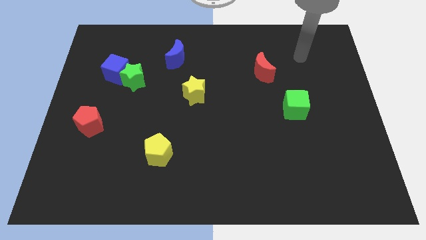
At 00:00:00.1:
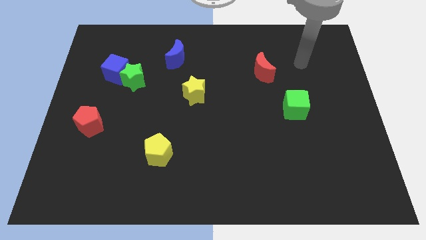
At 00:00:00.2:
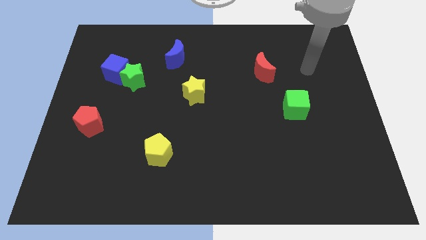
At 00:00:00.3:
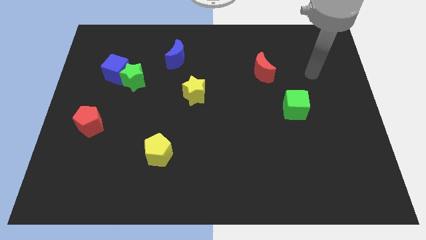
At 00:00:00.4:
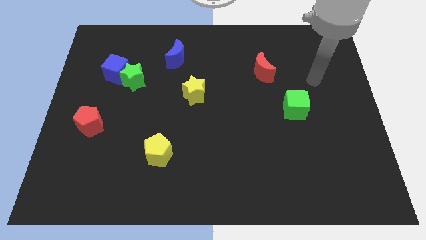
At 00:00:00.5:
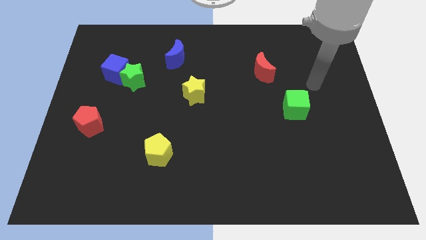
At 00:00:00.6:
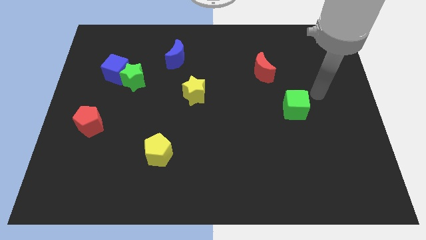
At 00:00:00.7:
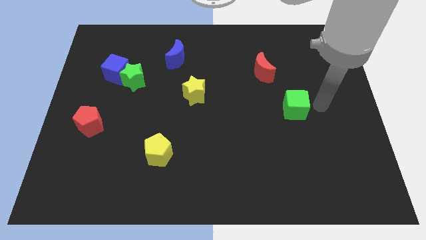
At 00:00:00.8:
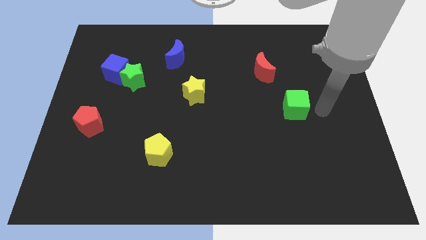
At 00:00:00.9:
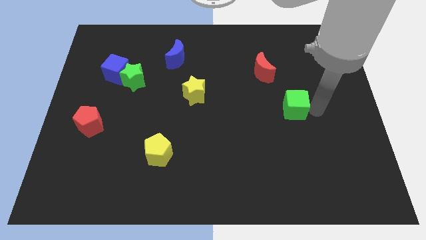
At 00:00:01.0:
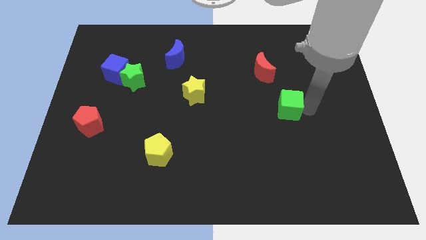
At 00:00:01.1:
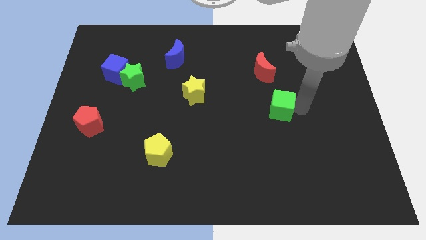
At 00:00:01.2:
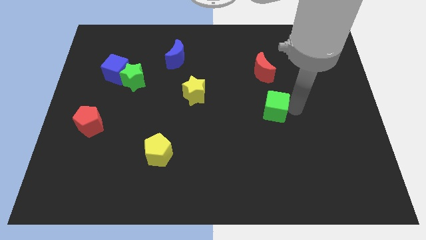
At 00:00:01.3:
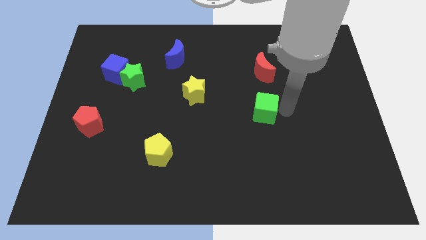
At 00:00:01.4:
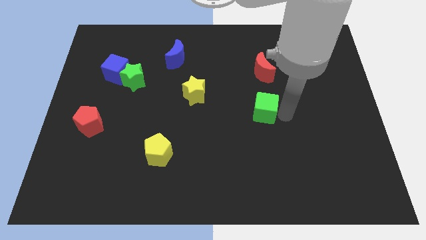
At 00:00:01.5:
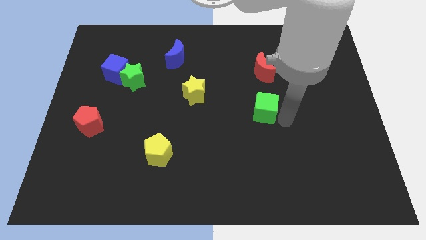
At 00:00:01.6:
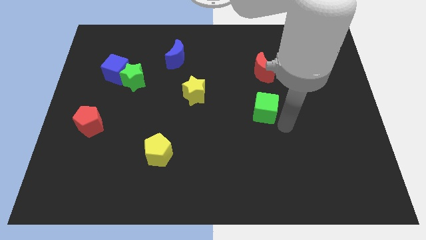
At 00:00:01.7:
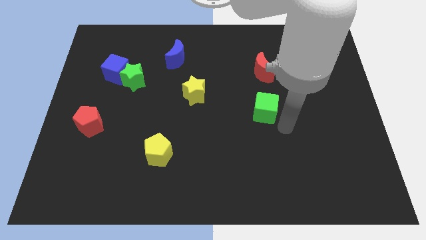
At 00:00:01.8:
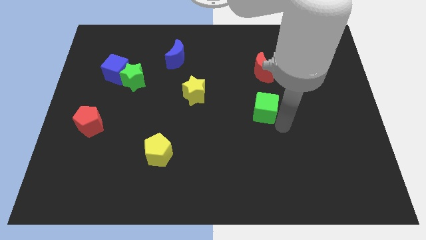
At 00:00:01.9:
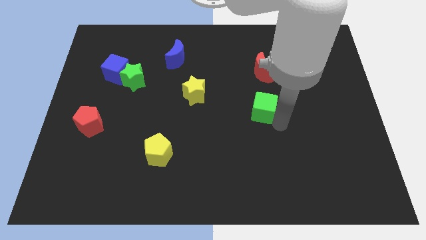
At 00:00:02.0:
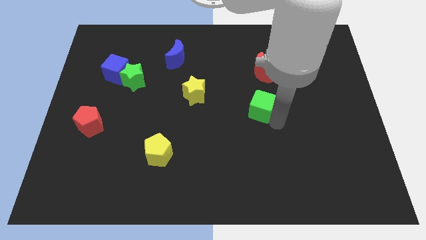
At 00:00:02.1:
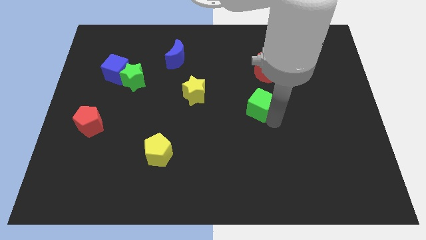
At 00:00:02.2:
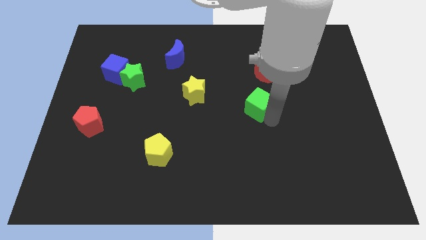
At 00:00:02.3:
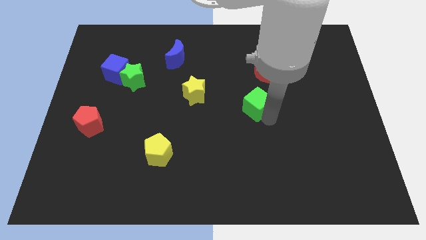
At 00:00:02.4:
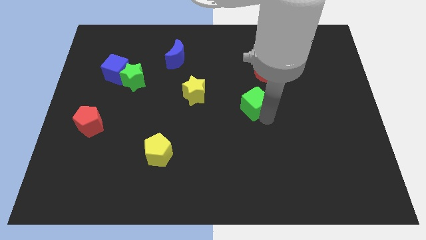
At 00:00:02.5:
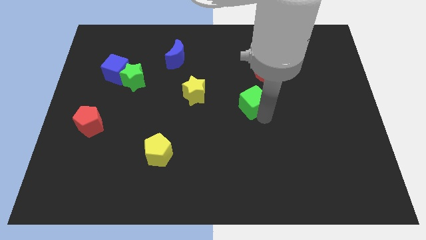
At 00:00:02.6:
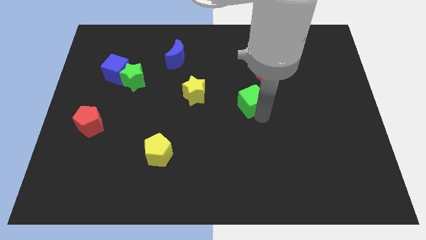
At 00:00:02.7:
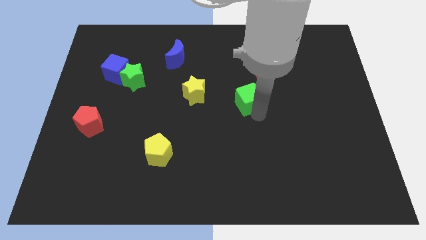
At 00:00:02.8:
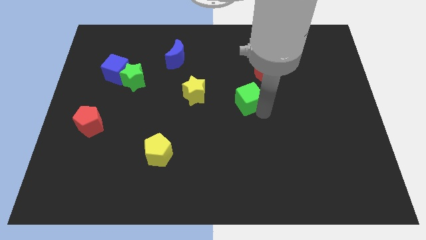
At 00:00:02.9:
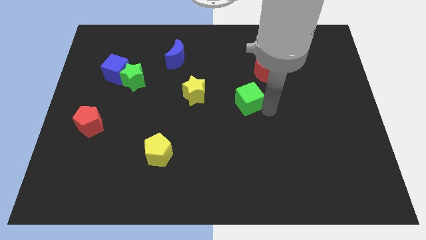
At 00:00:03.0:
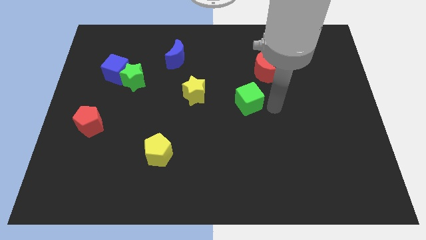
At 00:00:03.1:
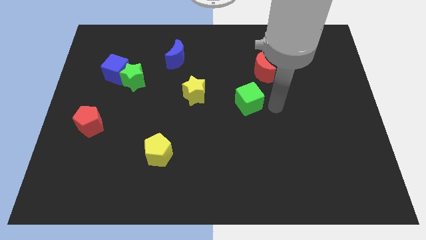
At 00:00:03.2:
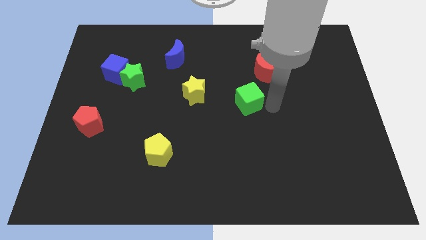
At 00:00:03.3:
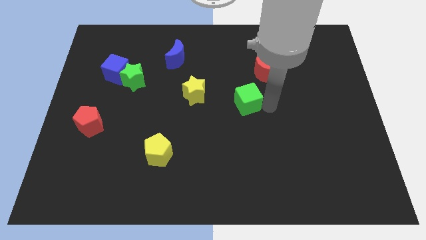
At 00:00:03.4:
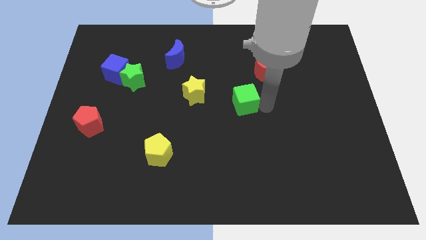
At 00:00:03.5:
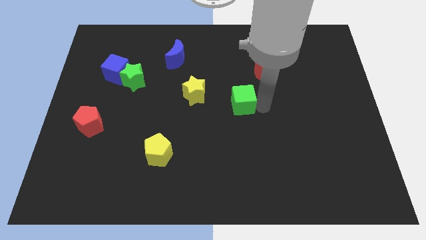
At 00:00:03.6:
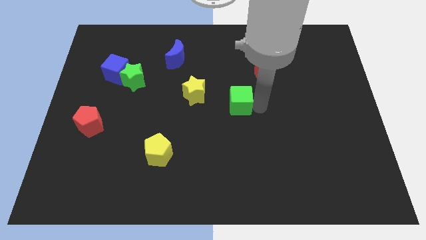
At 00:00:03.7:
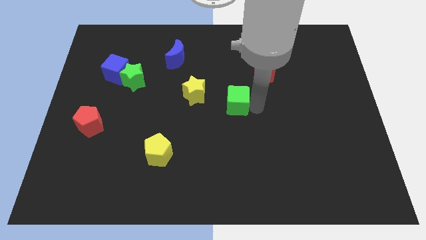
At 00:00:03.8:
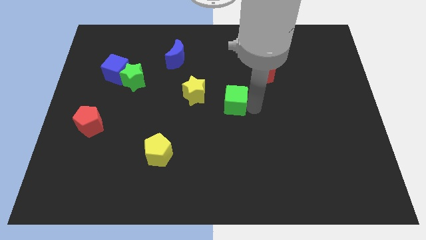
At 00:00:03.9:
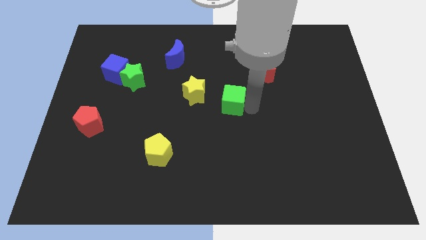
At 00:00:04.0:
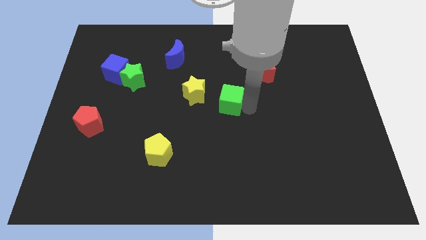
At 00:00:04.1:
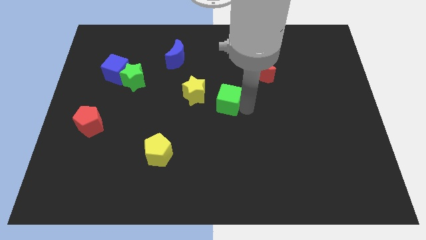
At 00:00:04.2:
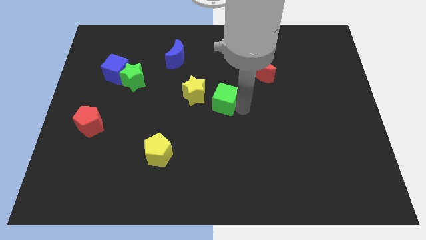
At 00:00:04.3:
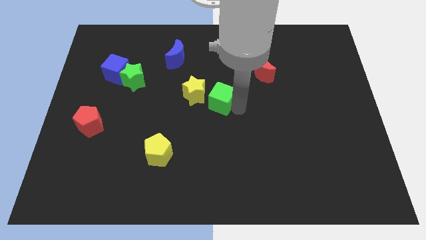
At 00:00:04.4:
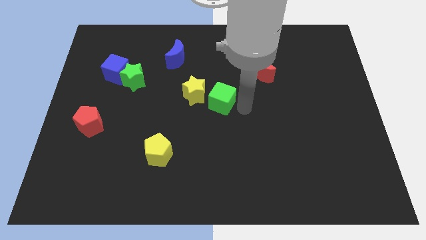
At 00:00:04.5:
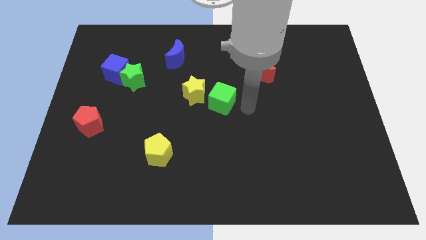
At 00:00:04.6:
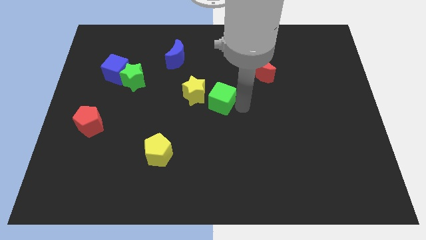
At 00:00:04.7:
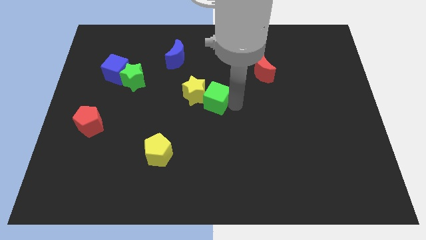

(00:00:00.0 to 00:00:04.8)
slide the green cube close to the yellow star

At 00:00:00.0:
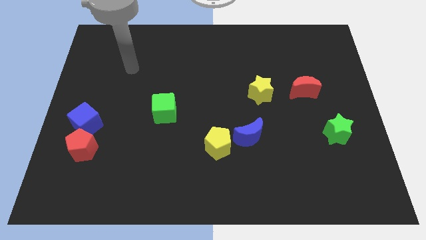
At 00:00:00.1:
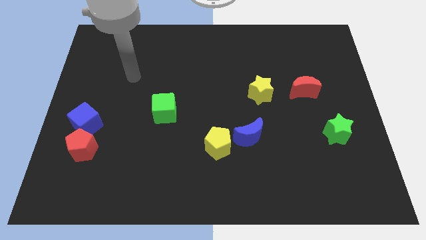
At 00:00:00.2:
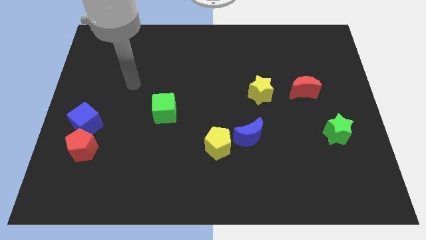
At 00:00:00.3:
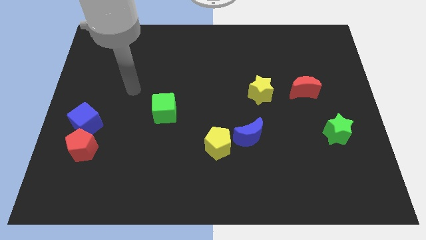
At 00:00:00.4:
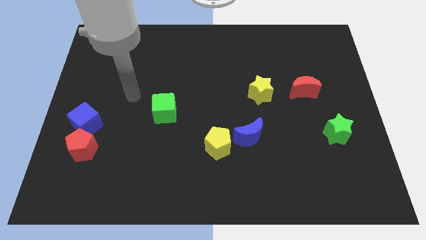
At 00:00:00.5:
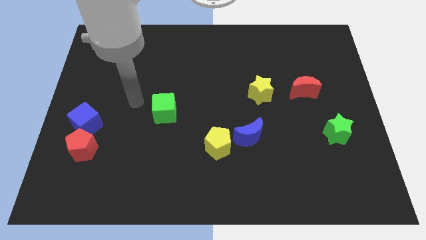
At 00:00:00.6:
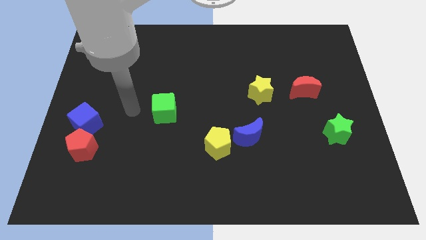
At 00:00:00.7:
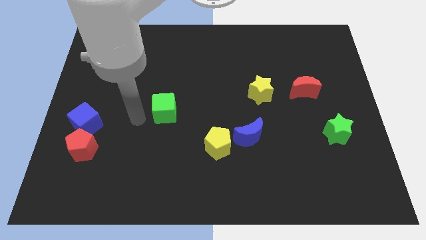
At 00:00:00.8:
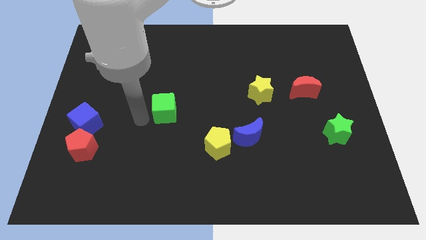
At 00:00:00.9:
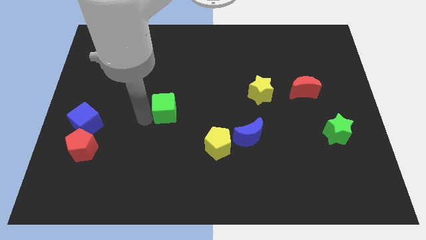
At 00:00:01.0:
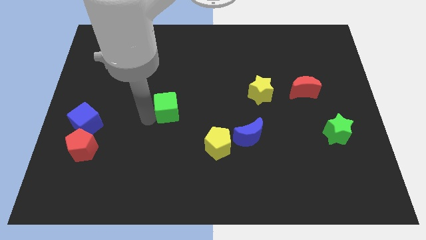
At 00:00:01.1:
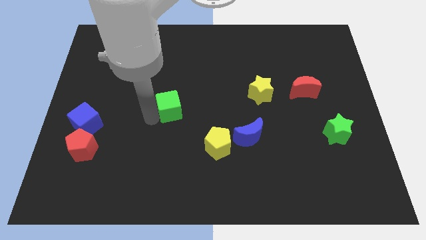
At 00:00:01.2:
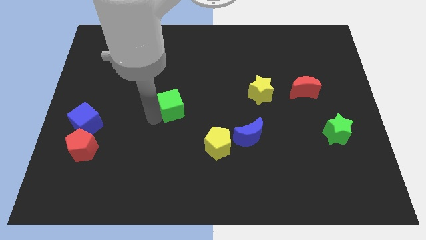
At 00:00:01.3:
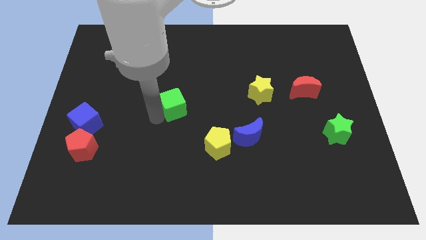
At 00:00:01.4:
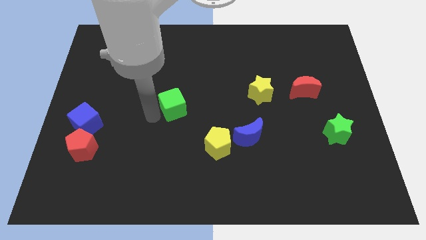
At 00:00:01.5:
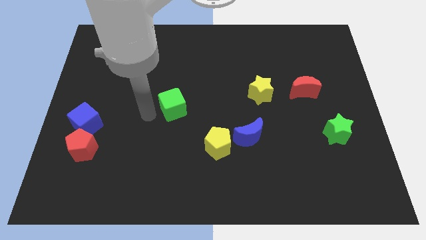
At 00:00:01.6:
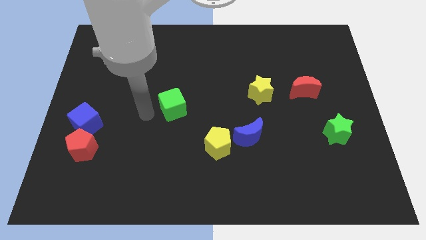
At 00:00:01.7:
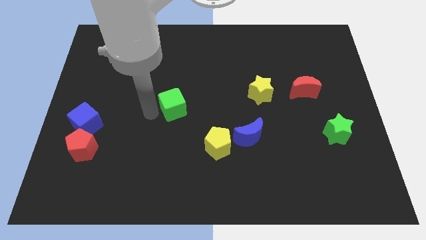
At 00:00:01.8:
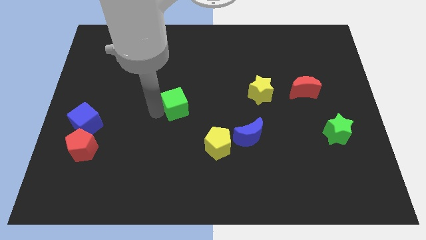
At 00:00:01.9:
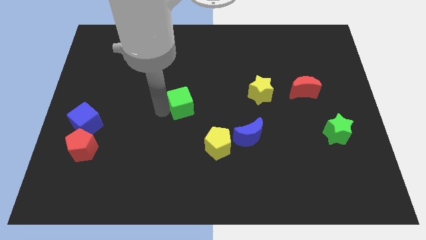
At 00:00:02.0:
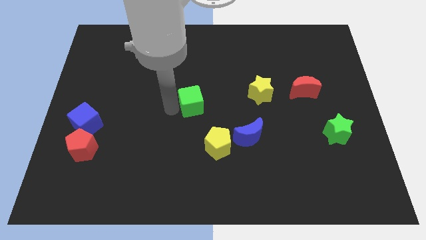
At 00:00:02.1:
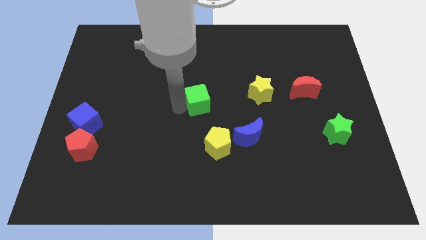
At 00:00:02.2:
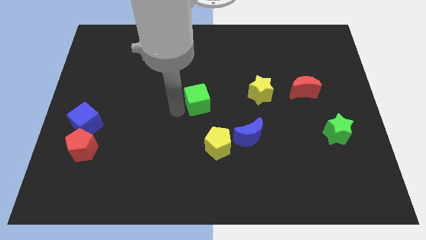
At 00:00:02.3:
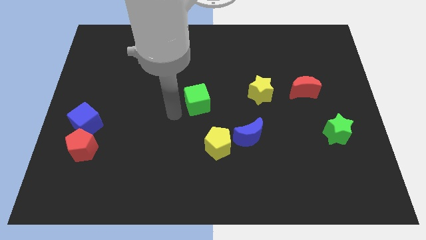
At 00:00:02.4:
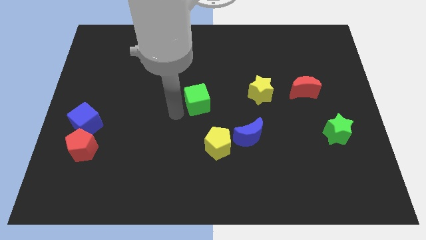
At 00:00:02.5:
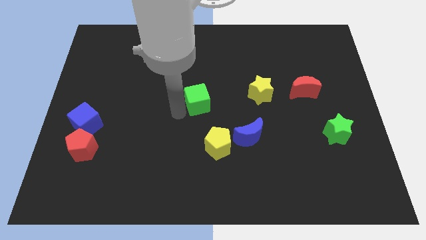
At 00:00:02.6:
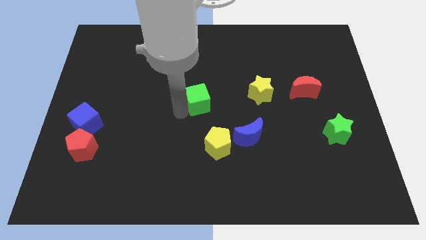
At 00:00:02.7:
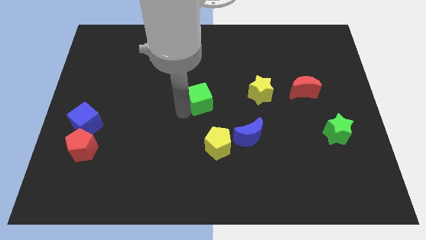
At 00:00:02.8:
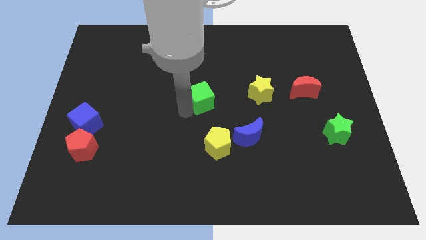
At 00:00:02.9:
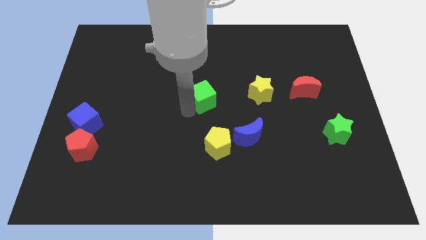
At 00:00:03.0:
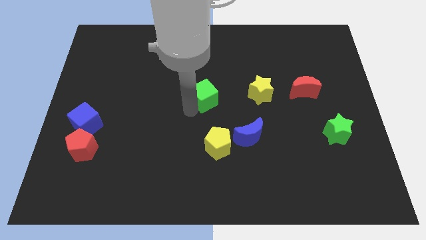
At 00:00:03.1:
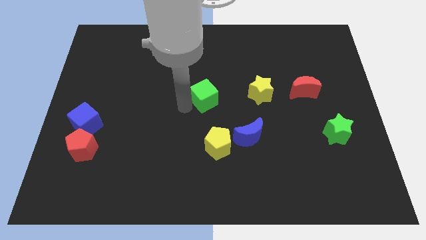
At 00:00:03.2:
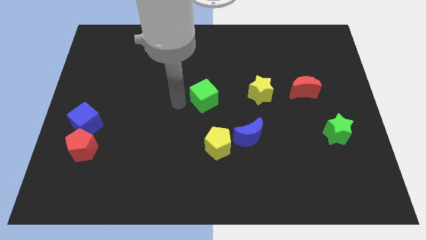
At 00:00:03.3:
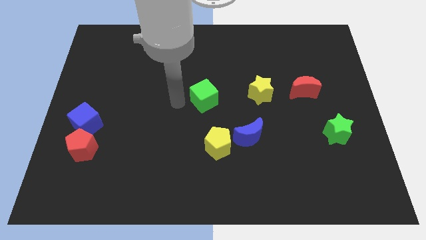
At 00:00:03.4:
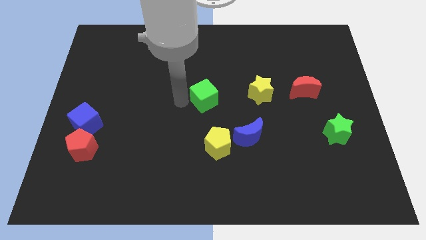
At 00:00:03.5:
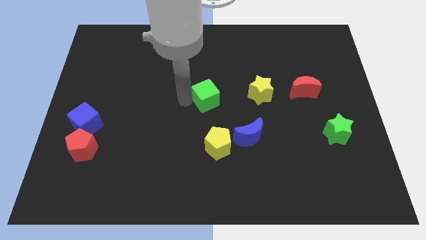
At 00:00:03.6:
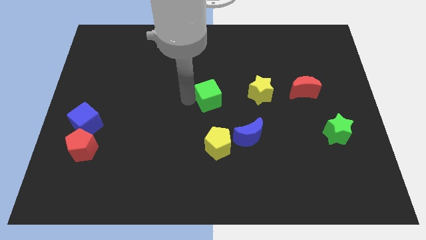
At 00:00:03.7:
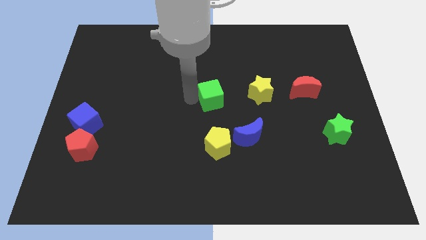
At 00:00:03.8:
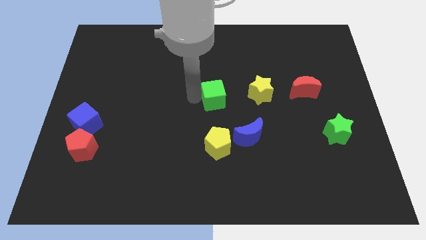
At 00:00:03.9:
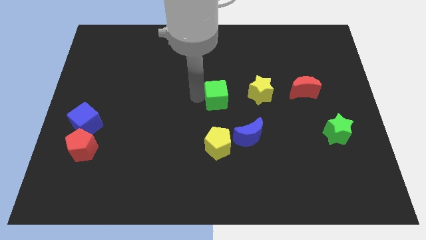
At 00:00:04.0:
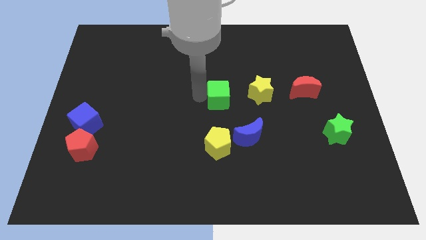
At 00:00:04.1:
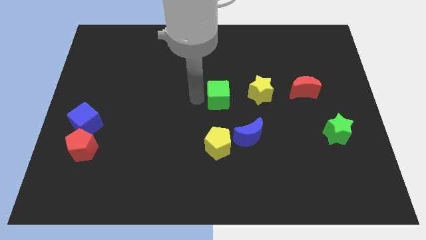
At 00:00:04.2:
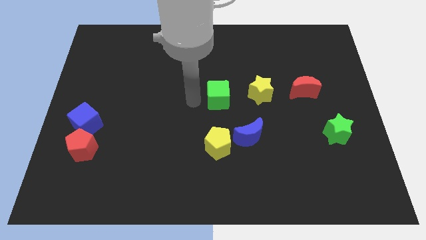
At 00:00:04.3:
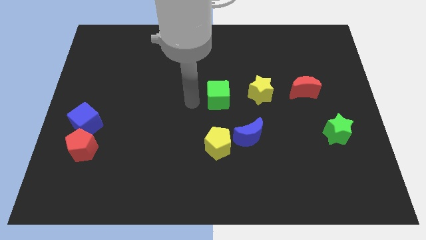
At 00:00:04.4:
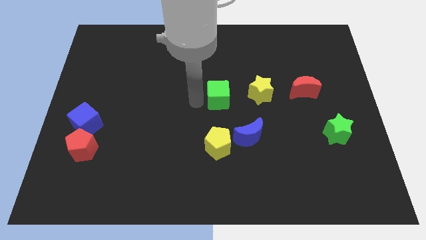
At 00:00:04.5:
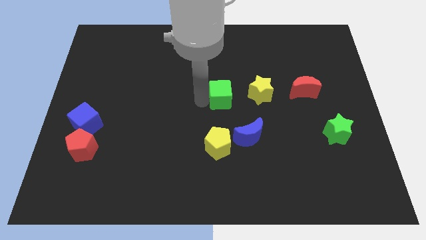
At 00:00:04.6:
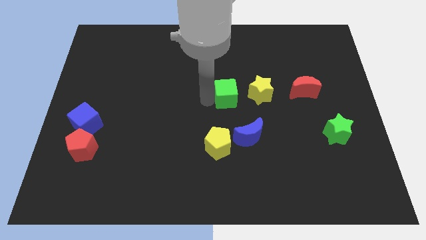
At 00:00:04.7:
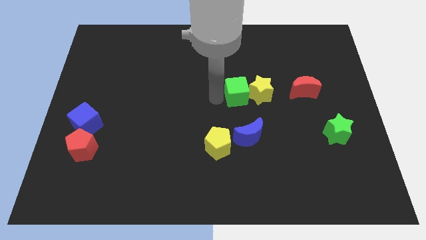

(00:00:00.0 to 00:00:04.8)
put the green cube close to the yellow star
